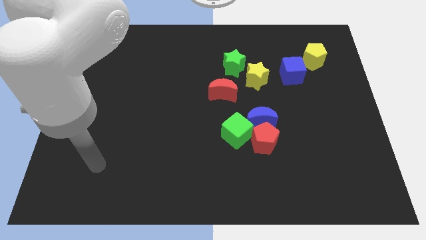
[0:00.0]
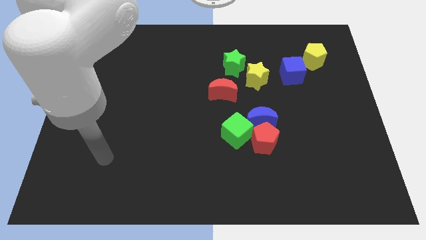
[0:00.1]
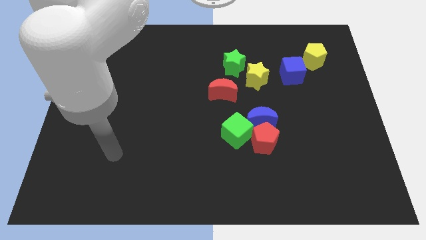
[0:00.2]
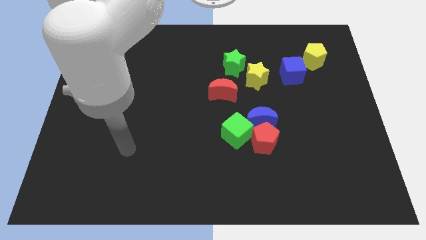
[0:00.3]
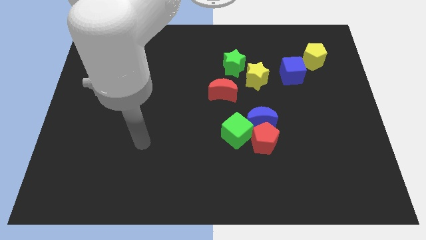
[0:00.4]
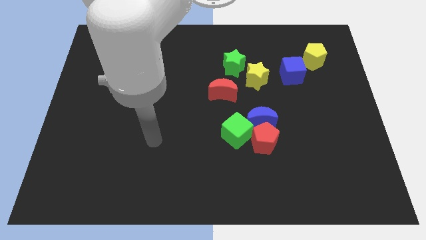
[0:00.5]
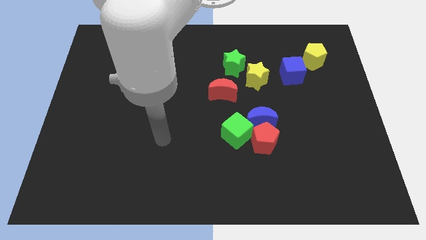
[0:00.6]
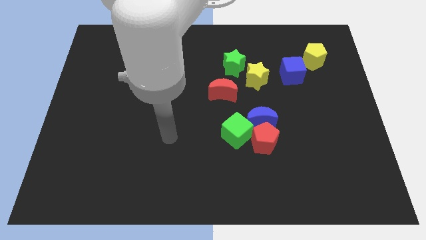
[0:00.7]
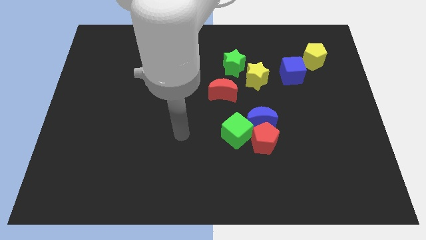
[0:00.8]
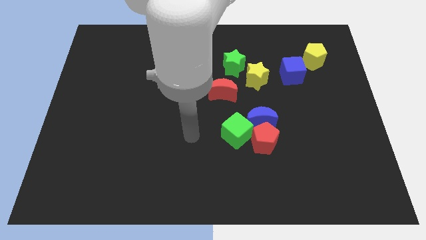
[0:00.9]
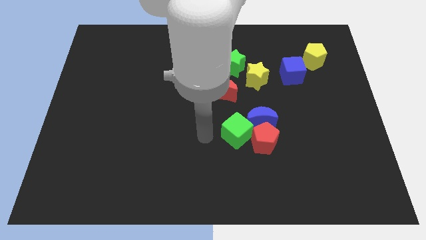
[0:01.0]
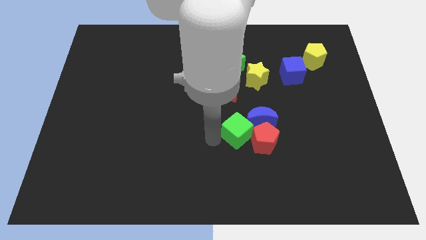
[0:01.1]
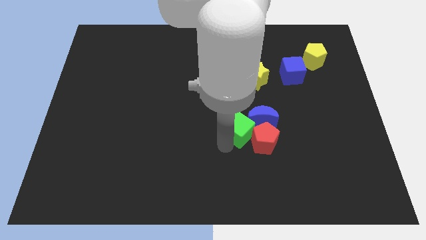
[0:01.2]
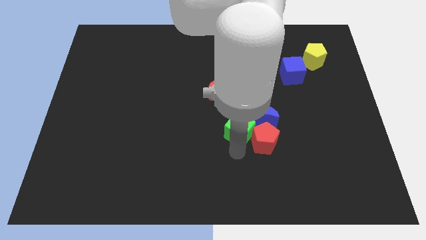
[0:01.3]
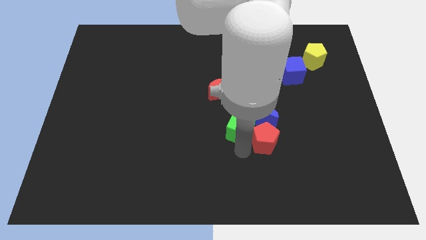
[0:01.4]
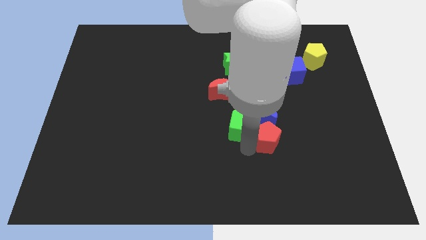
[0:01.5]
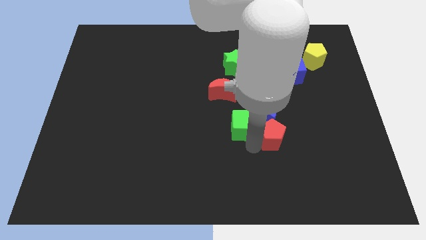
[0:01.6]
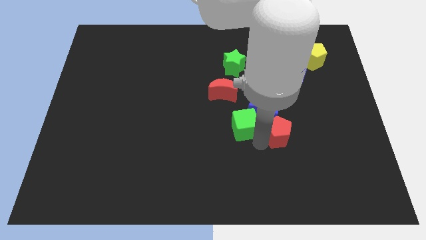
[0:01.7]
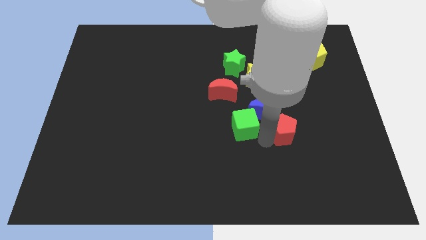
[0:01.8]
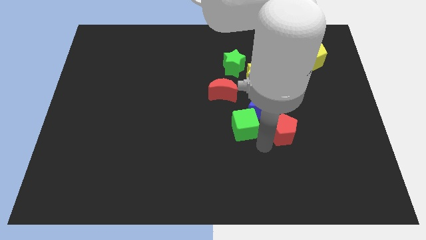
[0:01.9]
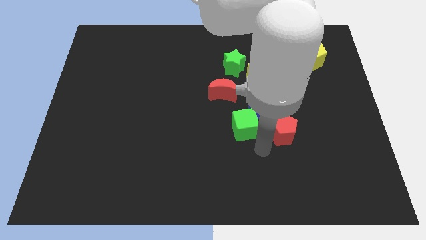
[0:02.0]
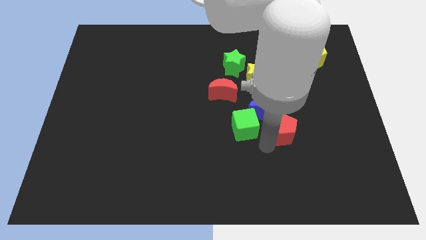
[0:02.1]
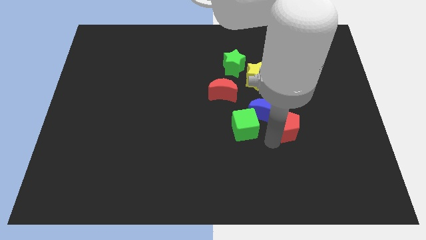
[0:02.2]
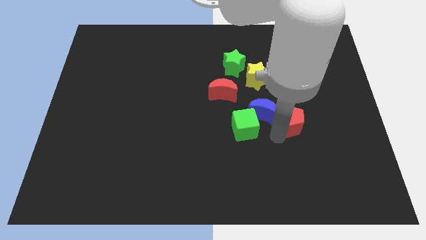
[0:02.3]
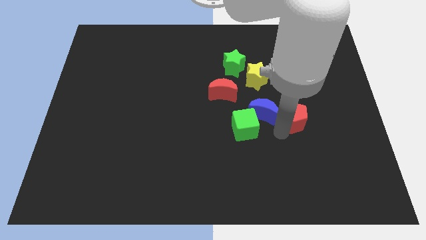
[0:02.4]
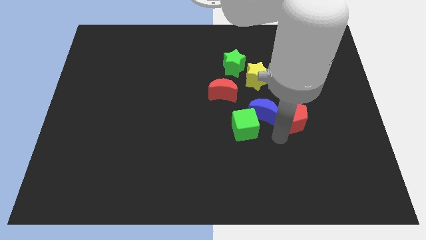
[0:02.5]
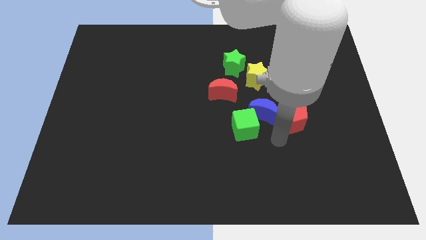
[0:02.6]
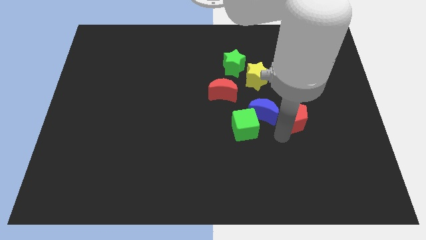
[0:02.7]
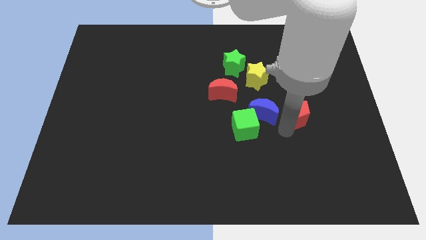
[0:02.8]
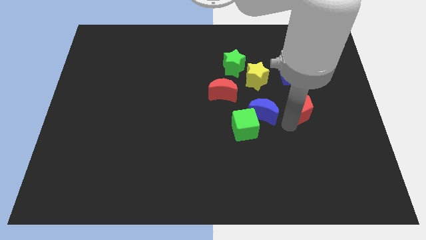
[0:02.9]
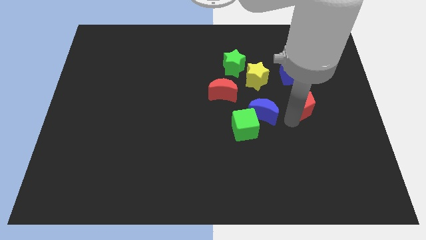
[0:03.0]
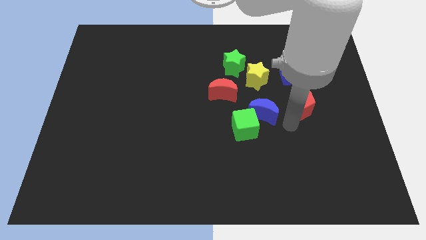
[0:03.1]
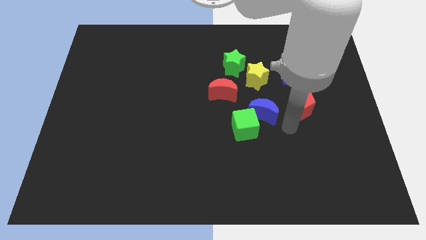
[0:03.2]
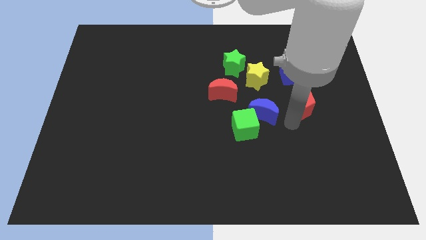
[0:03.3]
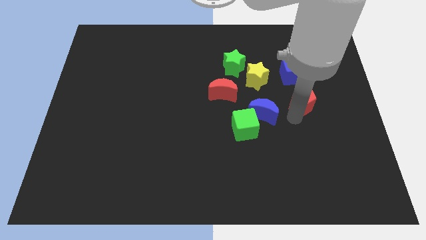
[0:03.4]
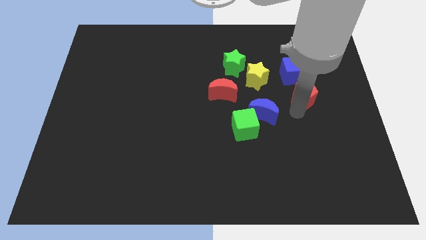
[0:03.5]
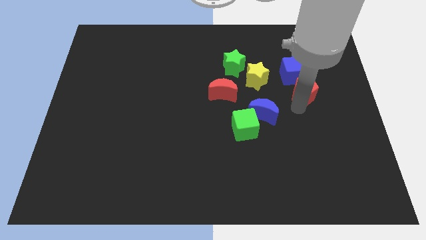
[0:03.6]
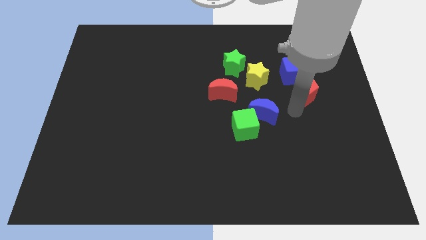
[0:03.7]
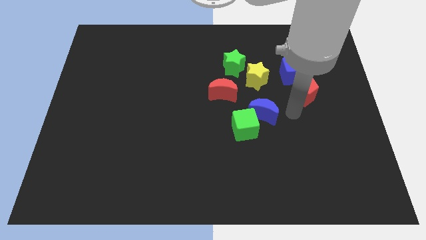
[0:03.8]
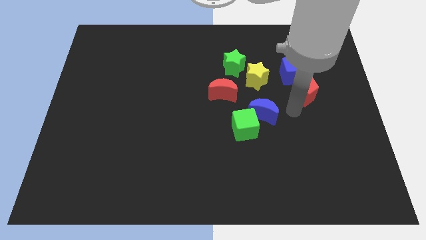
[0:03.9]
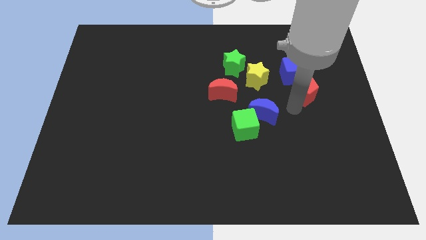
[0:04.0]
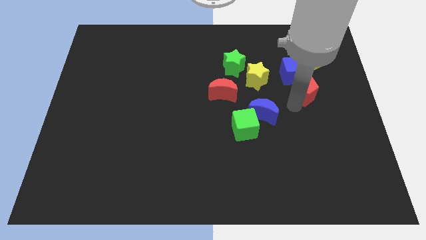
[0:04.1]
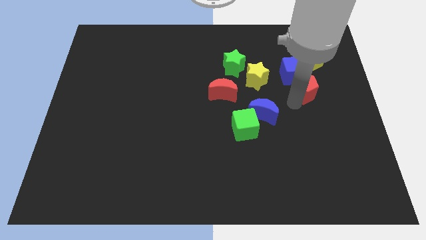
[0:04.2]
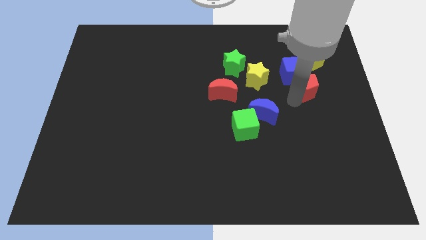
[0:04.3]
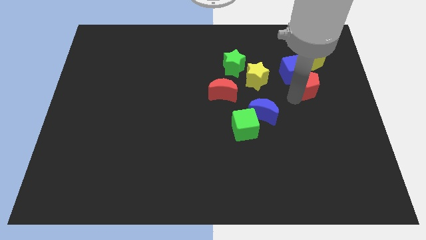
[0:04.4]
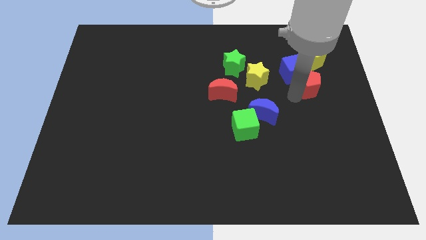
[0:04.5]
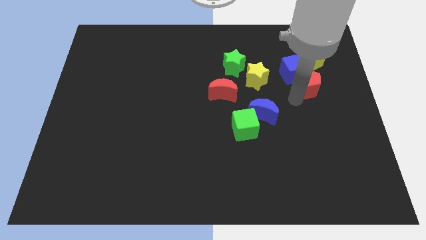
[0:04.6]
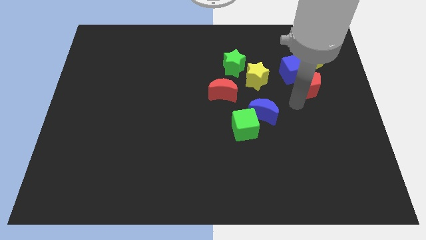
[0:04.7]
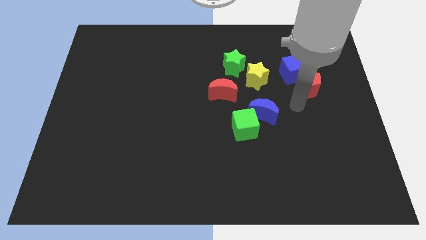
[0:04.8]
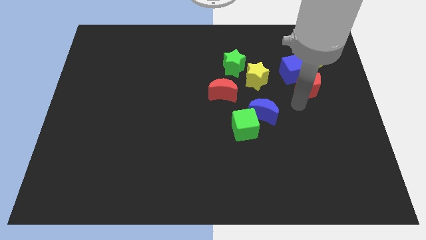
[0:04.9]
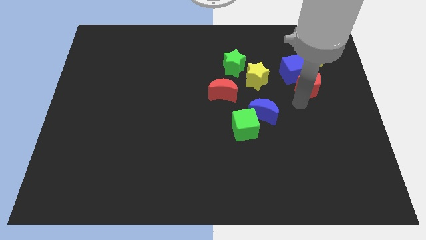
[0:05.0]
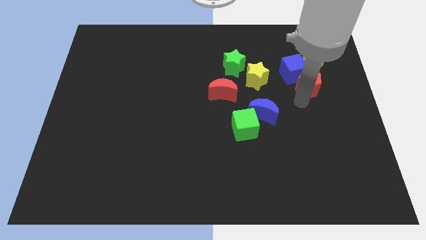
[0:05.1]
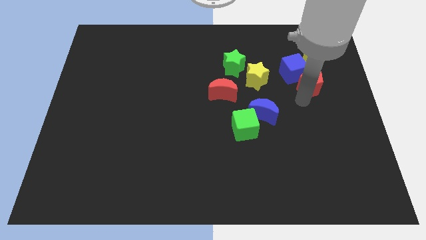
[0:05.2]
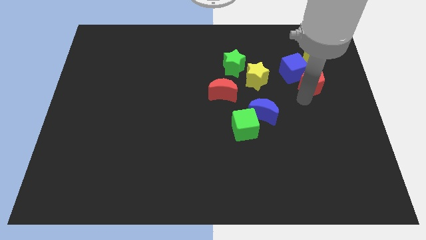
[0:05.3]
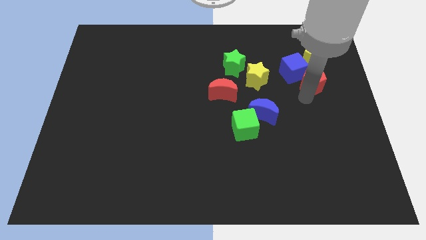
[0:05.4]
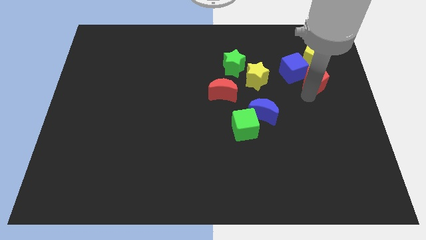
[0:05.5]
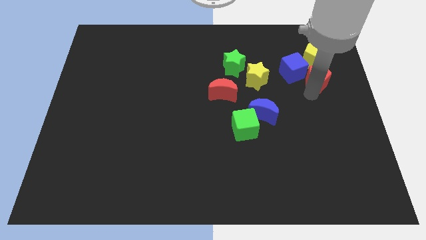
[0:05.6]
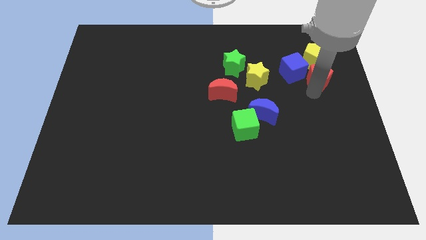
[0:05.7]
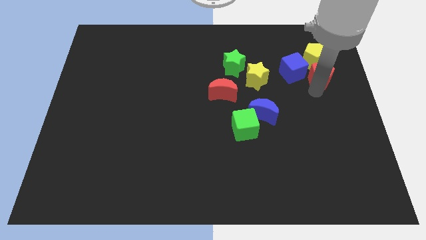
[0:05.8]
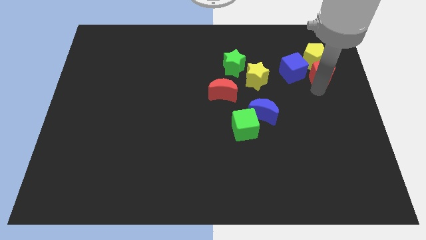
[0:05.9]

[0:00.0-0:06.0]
move the red pentagon close to the yellow pentagon

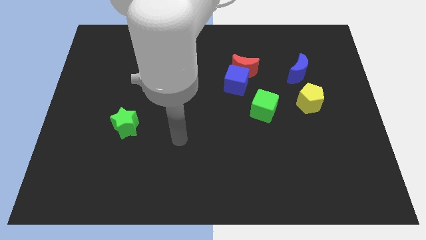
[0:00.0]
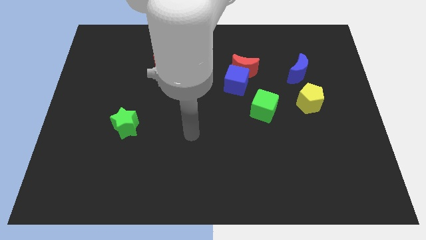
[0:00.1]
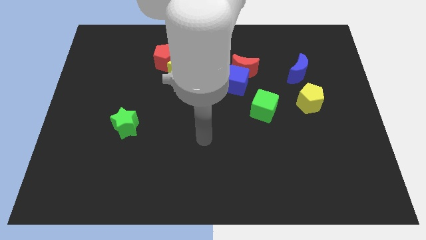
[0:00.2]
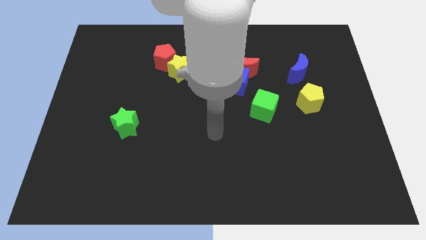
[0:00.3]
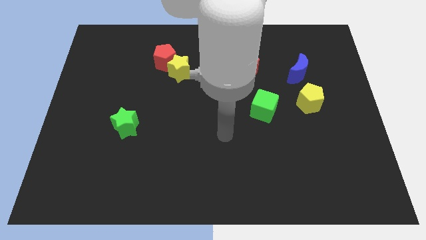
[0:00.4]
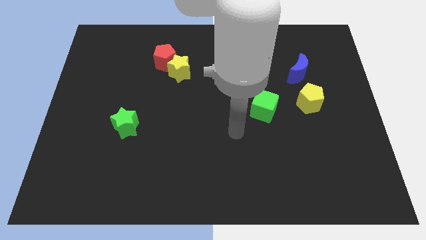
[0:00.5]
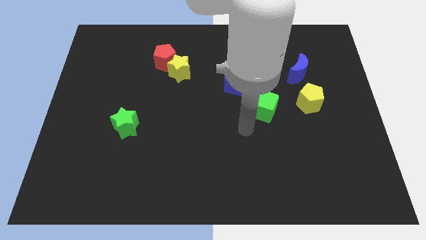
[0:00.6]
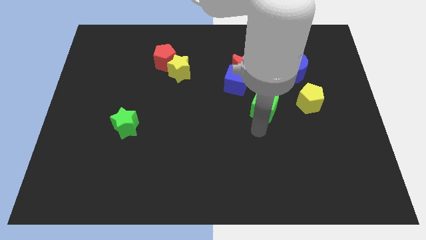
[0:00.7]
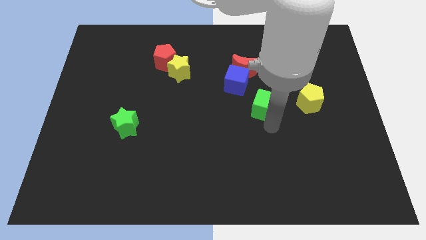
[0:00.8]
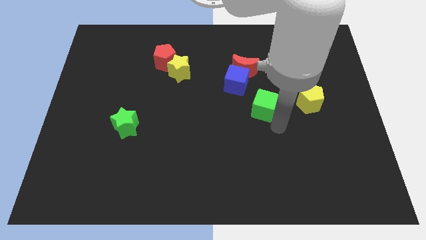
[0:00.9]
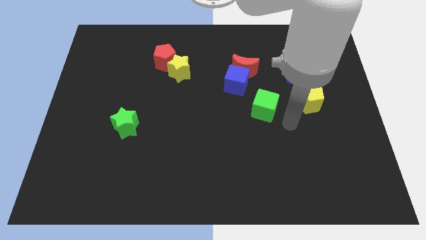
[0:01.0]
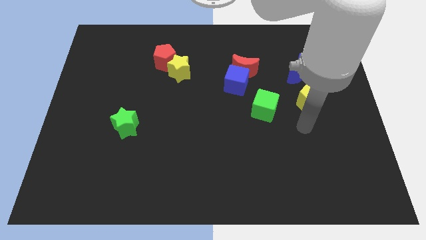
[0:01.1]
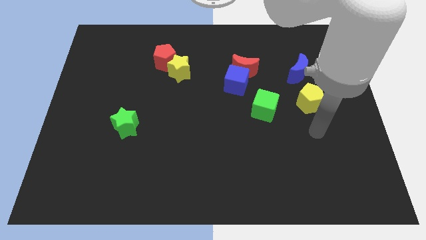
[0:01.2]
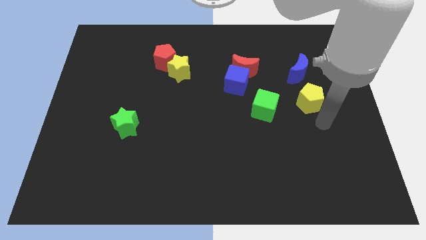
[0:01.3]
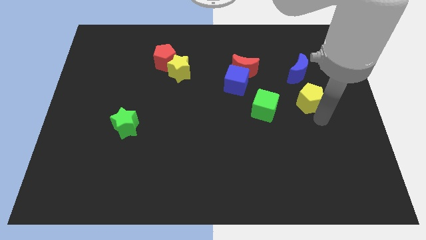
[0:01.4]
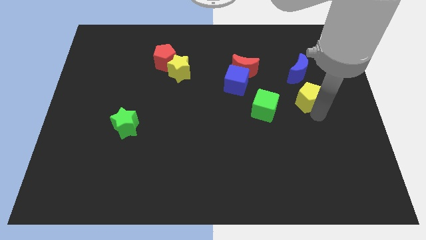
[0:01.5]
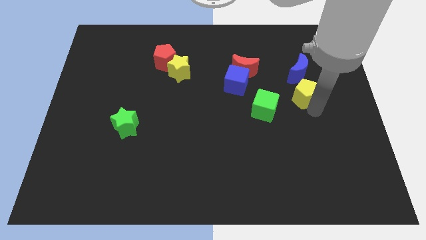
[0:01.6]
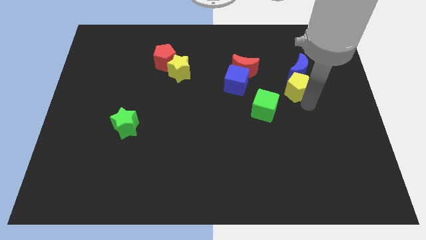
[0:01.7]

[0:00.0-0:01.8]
put the yellow pentagon towards the blue moon
